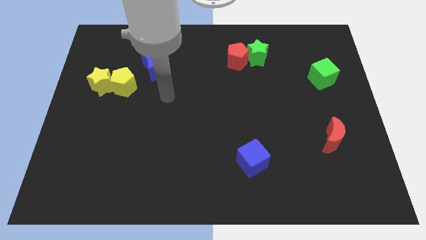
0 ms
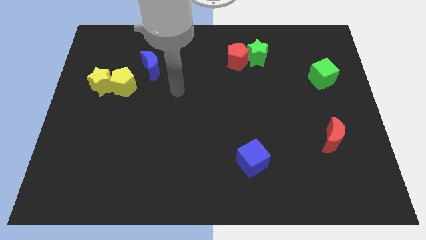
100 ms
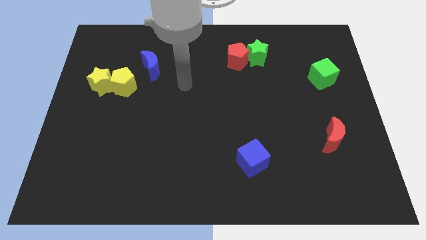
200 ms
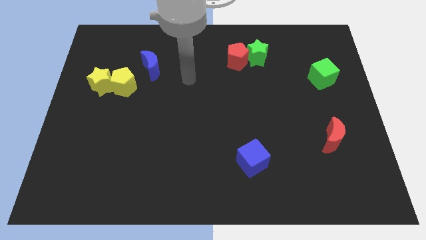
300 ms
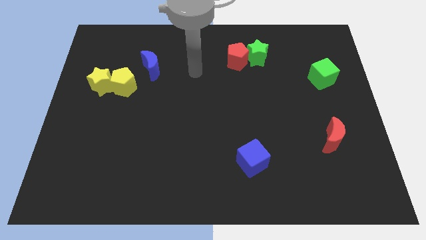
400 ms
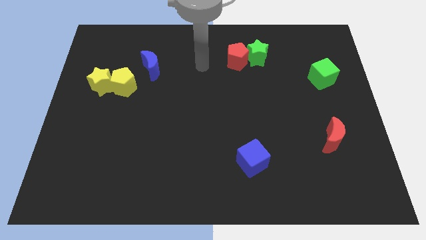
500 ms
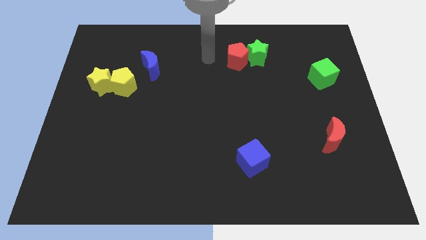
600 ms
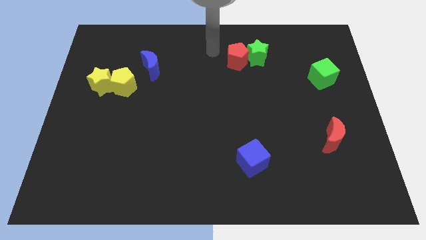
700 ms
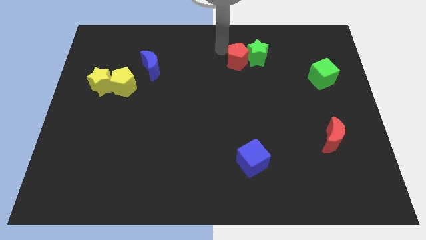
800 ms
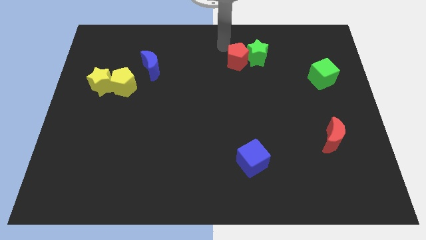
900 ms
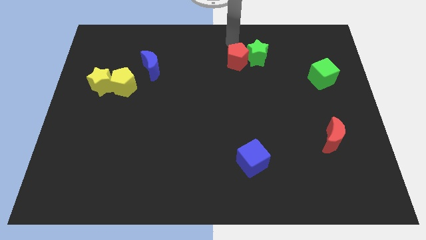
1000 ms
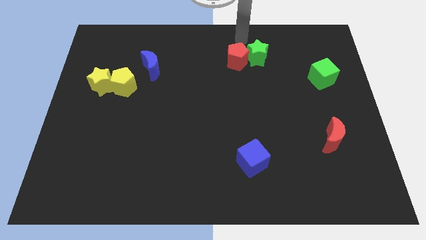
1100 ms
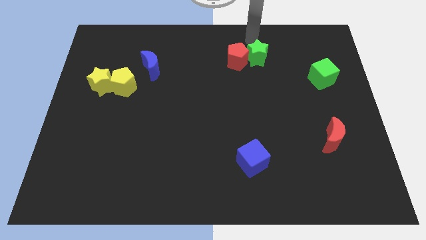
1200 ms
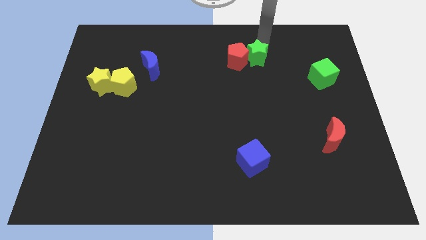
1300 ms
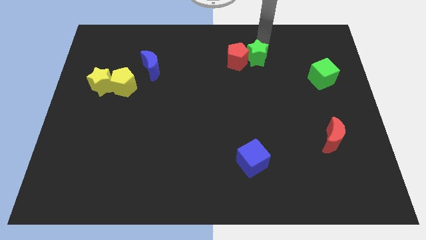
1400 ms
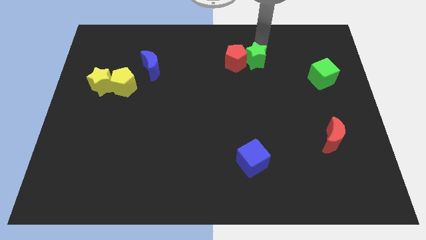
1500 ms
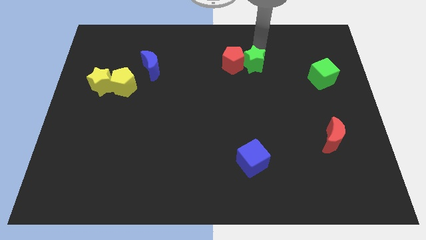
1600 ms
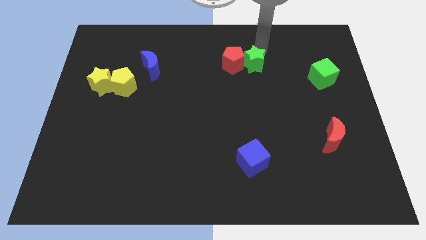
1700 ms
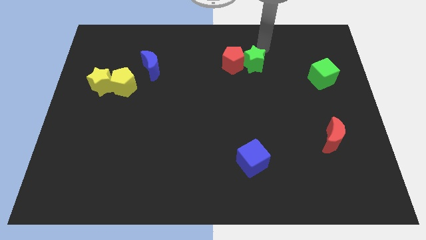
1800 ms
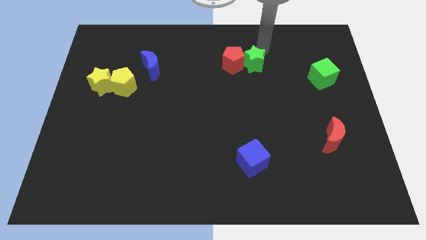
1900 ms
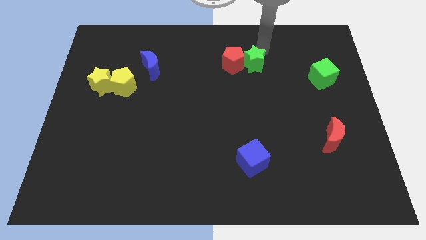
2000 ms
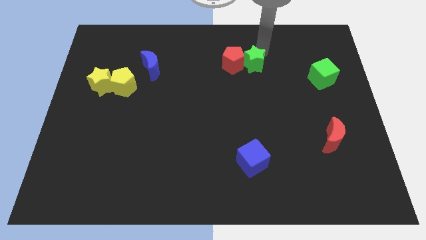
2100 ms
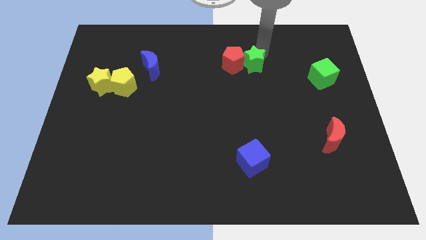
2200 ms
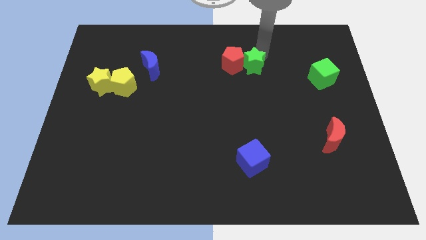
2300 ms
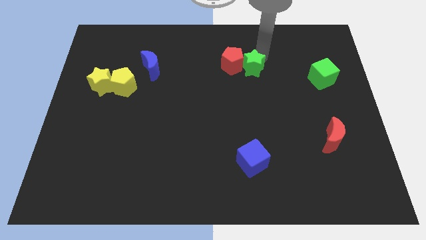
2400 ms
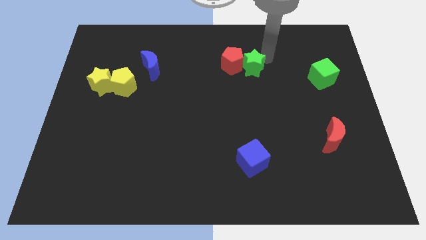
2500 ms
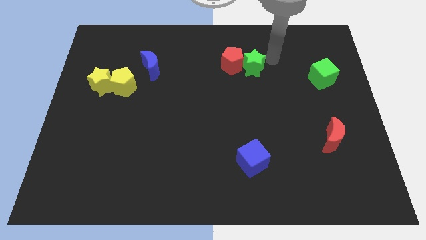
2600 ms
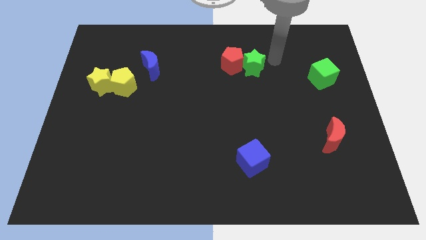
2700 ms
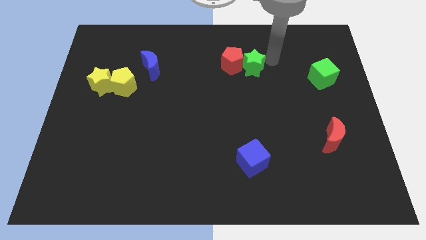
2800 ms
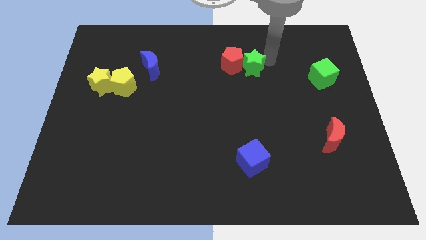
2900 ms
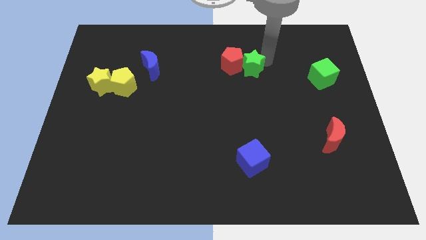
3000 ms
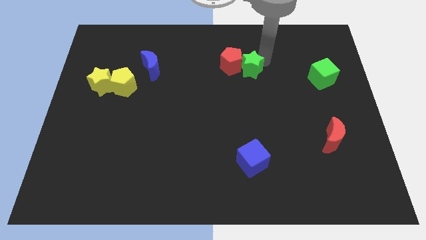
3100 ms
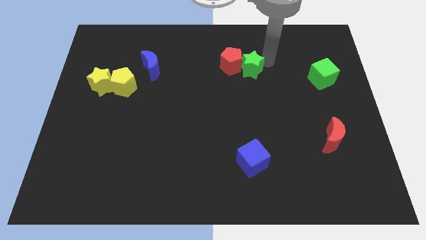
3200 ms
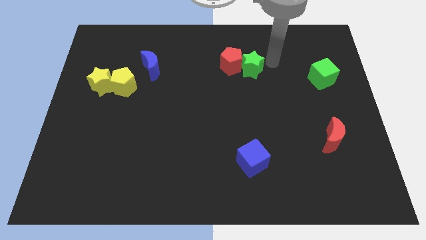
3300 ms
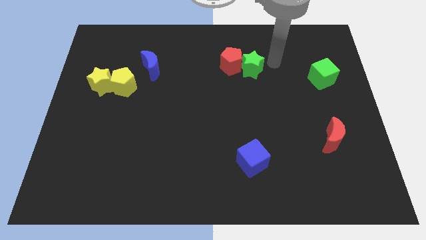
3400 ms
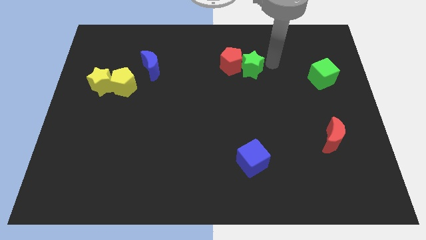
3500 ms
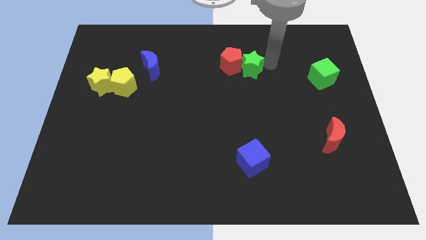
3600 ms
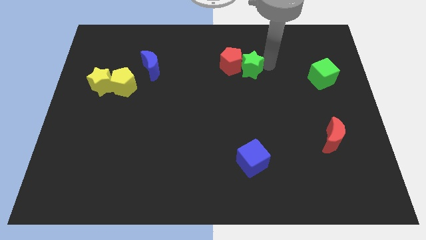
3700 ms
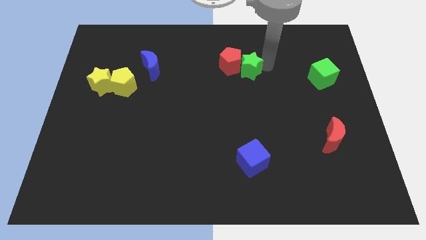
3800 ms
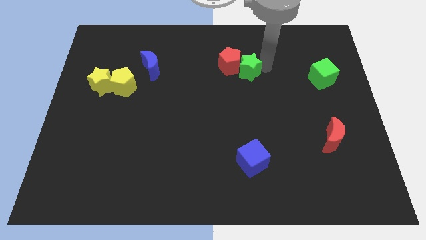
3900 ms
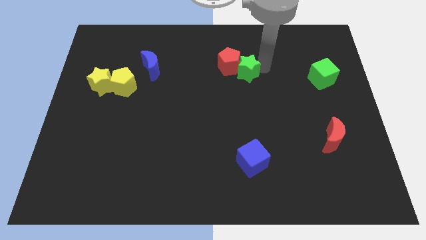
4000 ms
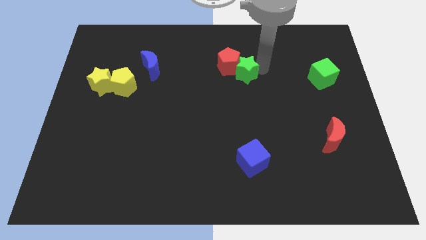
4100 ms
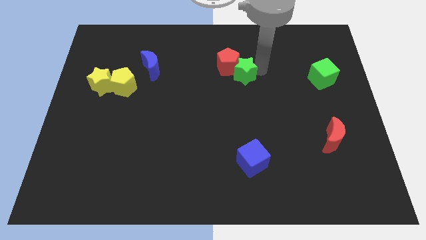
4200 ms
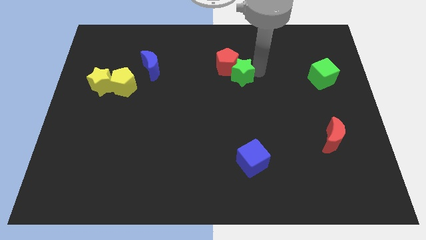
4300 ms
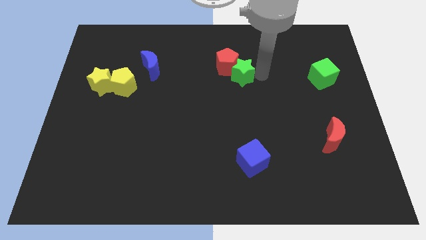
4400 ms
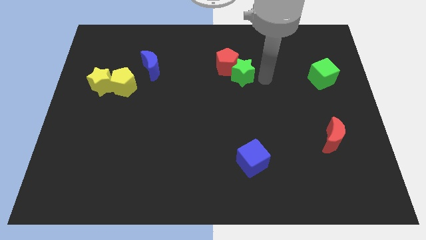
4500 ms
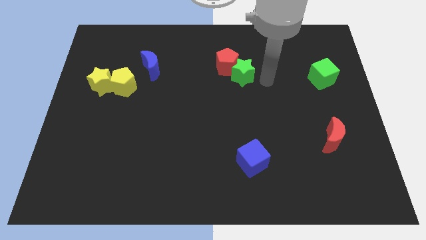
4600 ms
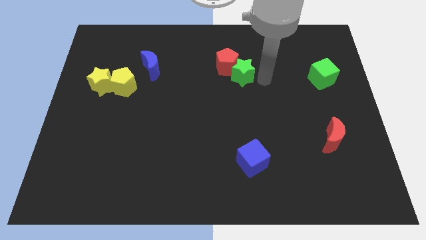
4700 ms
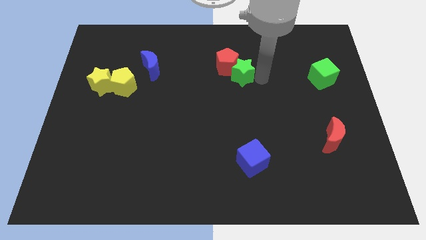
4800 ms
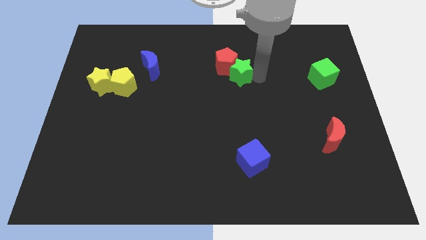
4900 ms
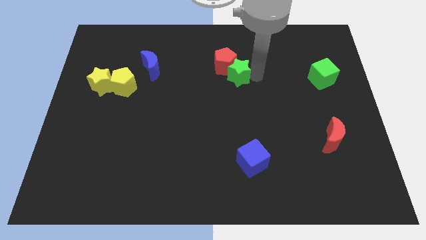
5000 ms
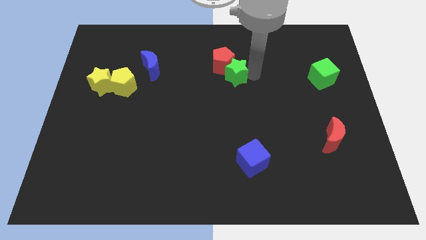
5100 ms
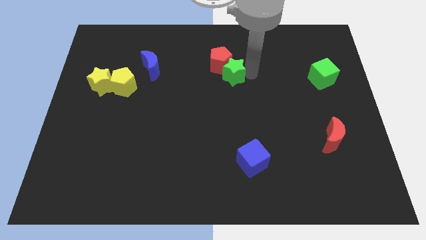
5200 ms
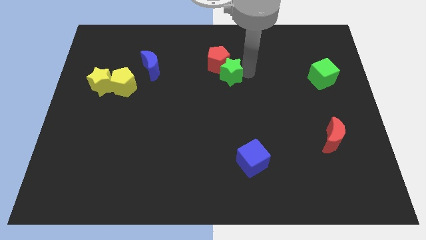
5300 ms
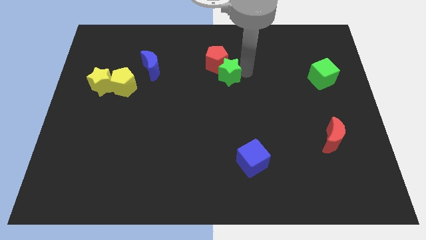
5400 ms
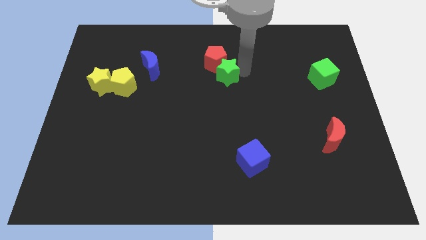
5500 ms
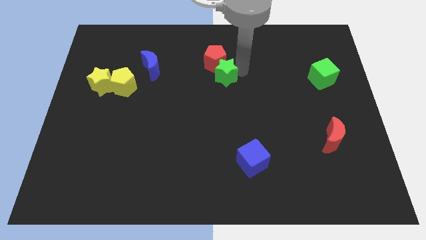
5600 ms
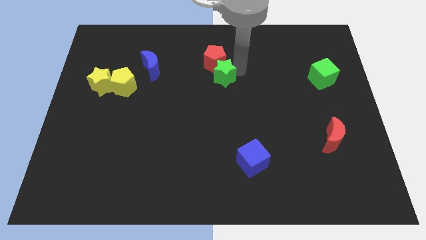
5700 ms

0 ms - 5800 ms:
push the green star a little left

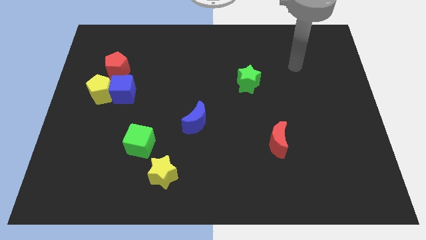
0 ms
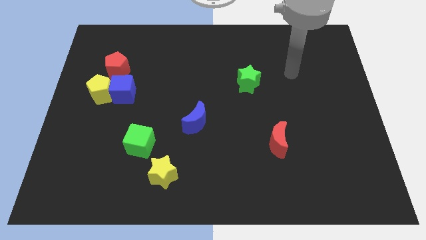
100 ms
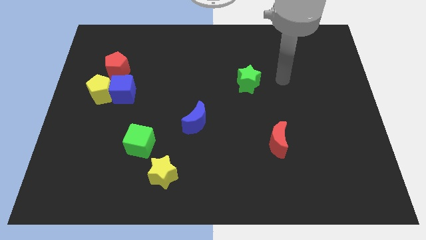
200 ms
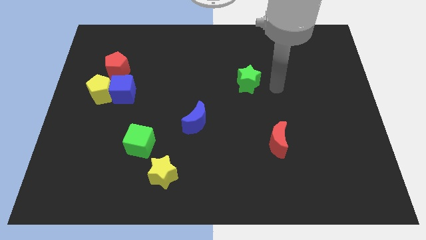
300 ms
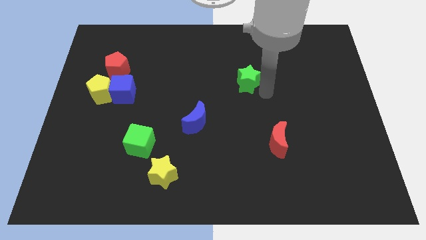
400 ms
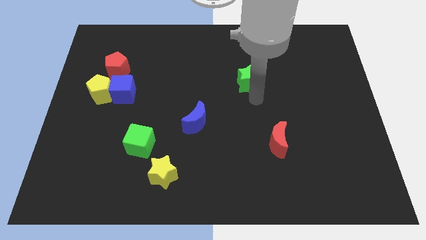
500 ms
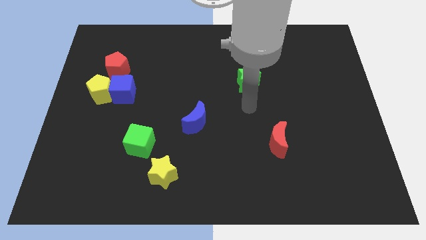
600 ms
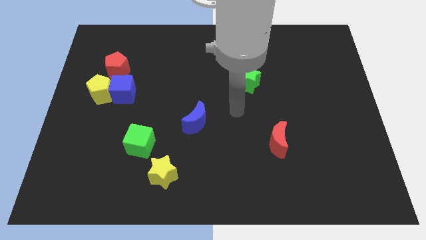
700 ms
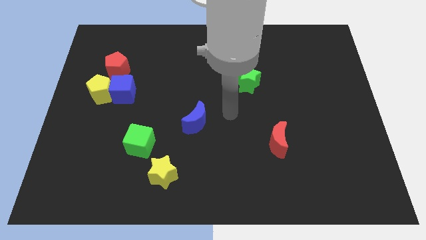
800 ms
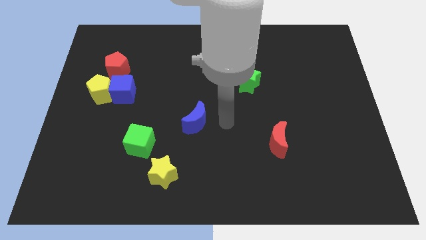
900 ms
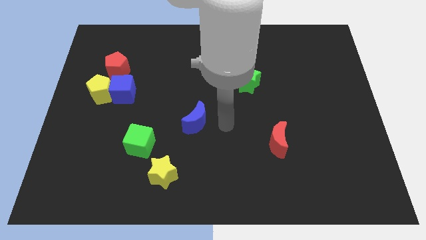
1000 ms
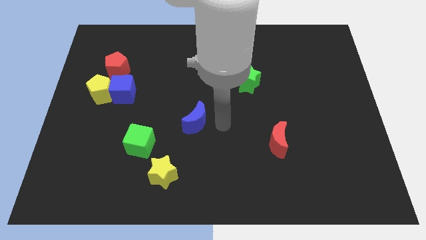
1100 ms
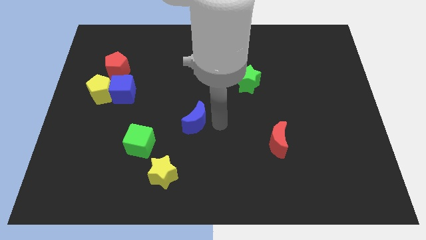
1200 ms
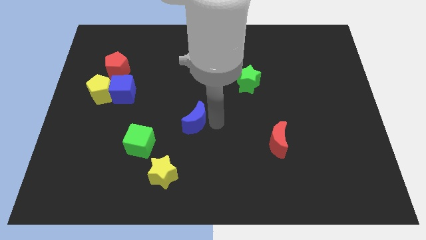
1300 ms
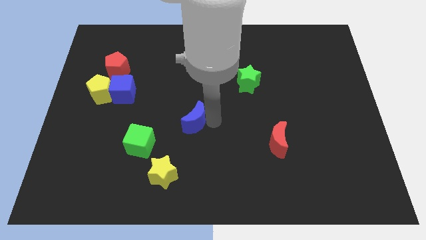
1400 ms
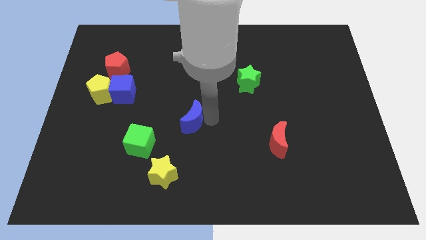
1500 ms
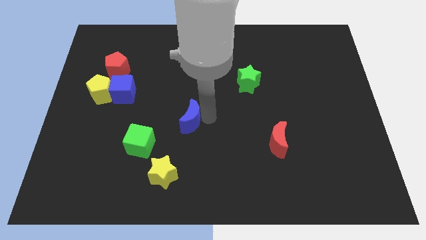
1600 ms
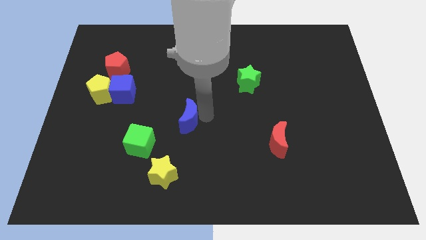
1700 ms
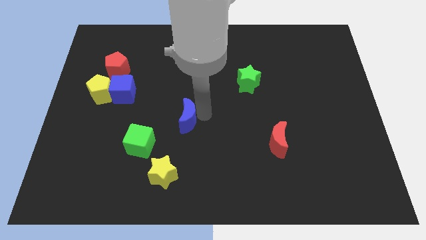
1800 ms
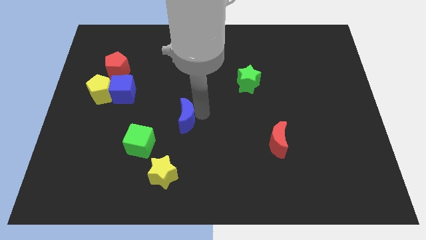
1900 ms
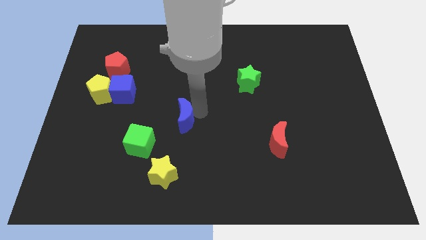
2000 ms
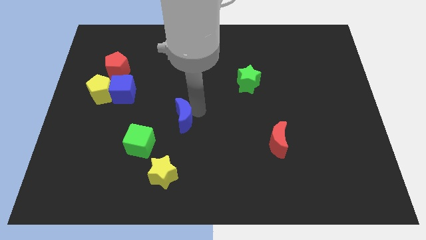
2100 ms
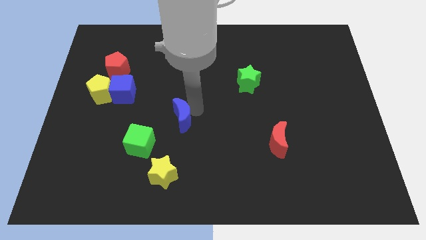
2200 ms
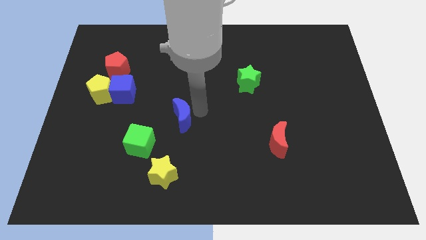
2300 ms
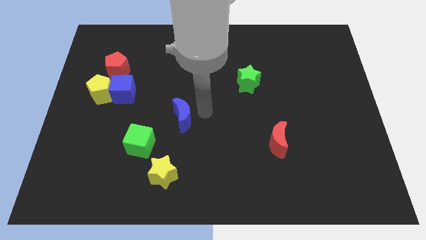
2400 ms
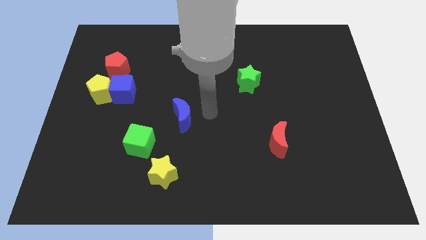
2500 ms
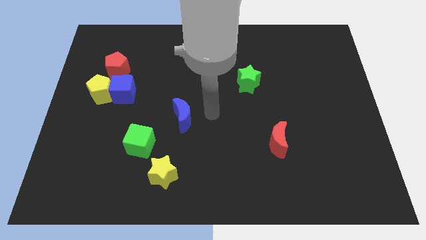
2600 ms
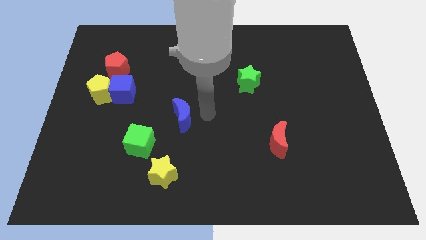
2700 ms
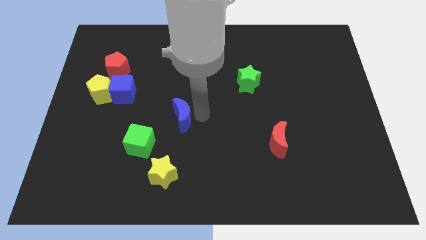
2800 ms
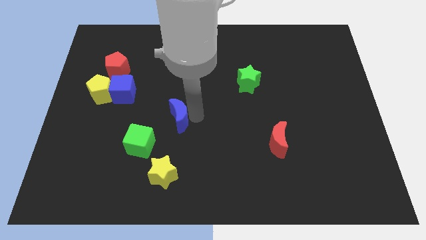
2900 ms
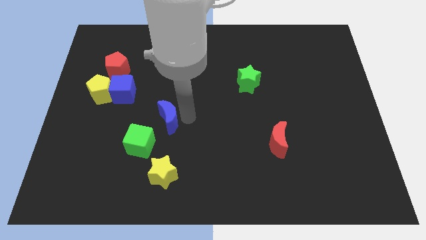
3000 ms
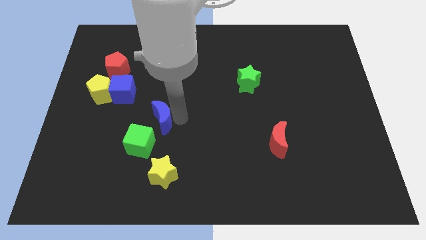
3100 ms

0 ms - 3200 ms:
slide the blue moon slightly left
